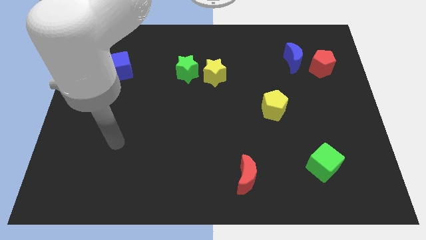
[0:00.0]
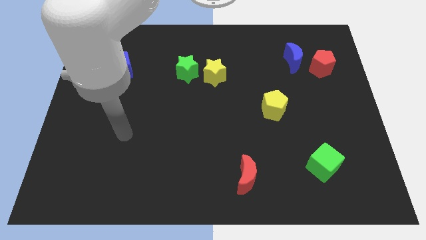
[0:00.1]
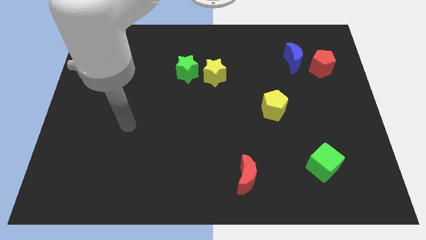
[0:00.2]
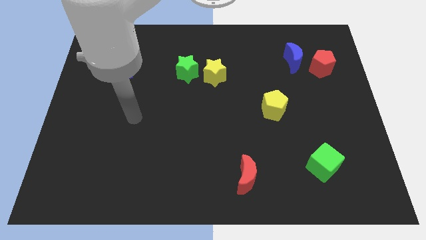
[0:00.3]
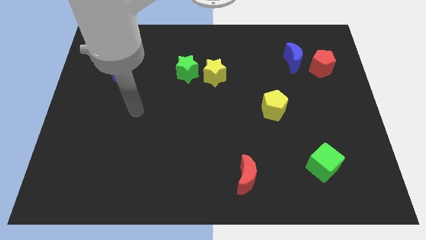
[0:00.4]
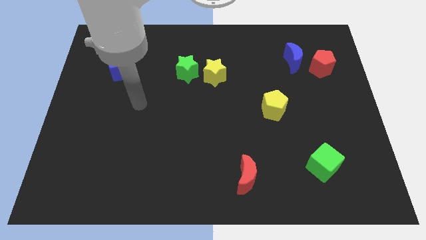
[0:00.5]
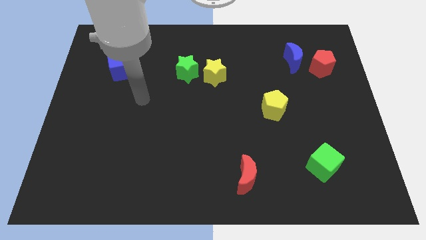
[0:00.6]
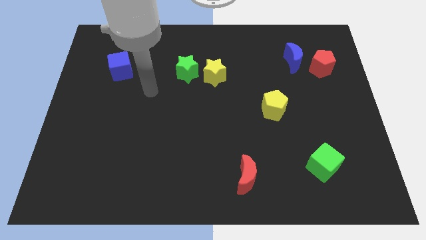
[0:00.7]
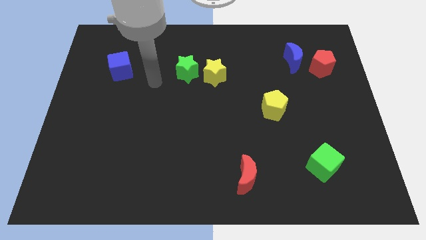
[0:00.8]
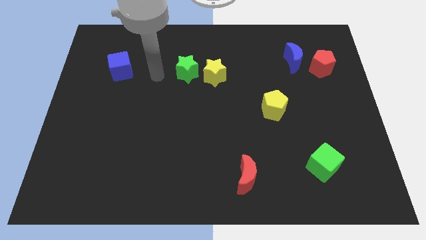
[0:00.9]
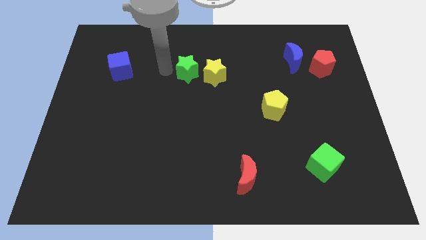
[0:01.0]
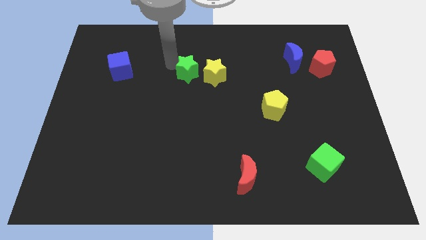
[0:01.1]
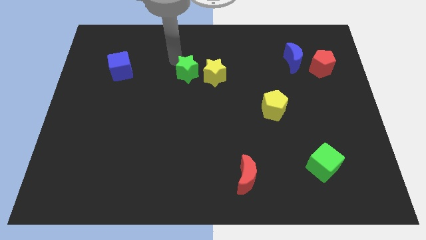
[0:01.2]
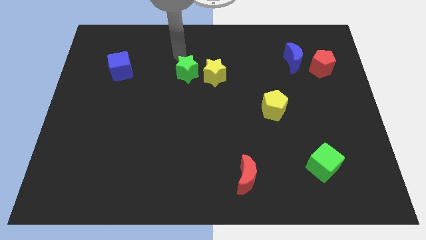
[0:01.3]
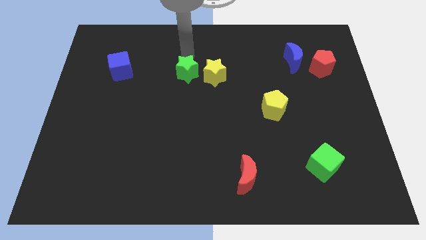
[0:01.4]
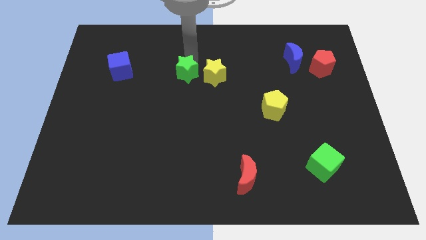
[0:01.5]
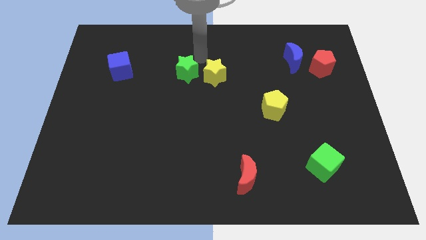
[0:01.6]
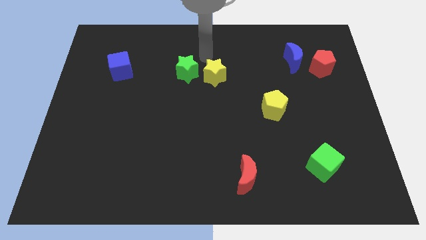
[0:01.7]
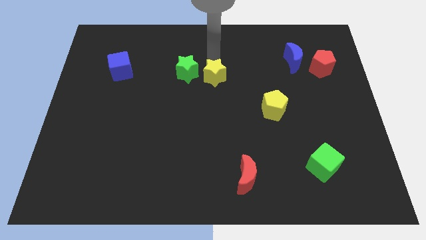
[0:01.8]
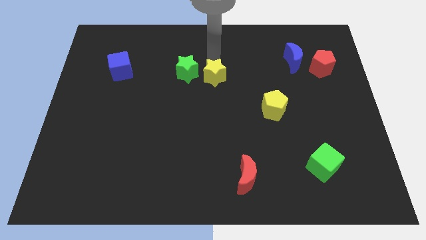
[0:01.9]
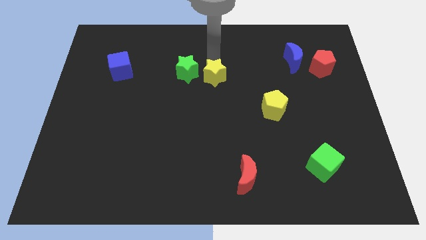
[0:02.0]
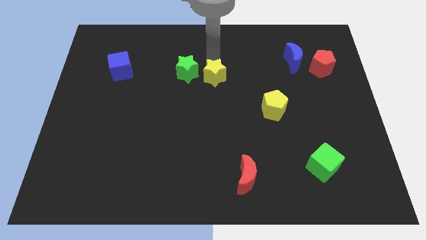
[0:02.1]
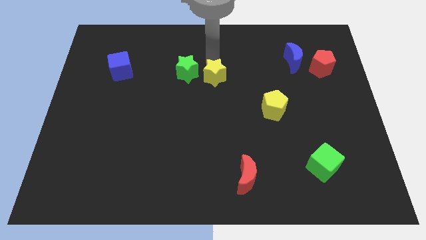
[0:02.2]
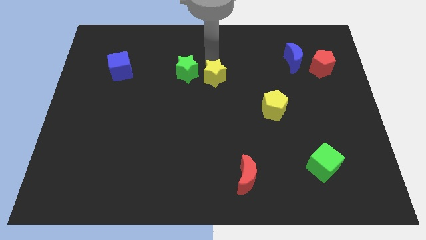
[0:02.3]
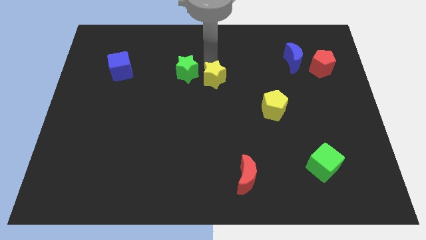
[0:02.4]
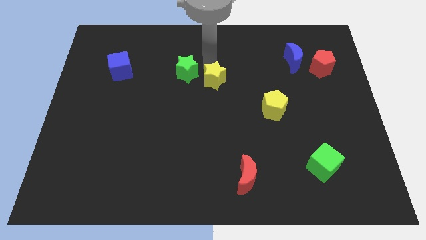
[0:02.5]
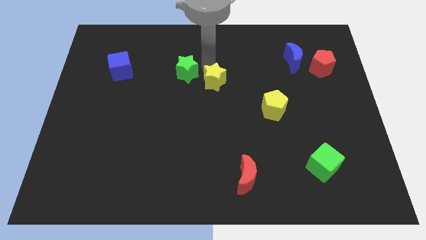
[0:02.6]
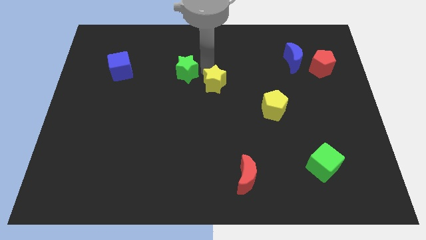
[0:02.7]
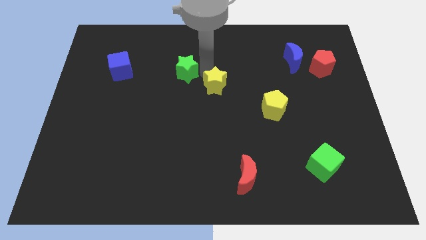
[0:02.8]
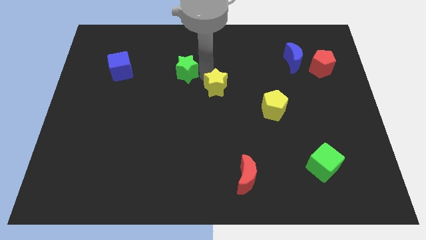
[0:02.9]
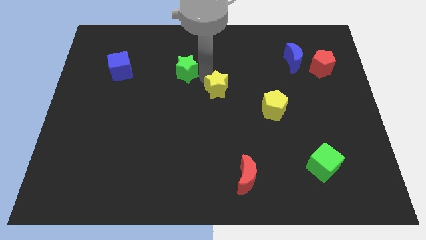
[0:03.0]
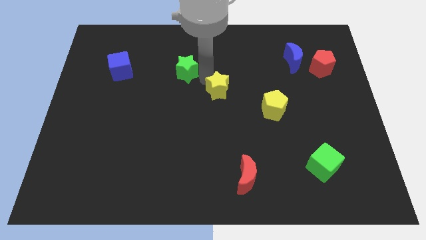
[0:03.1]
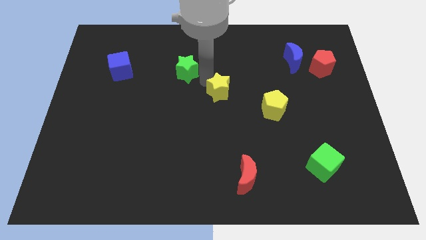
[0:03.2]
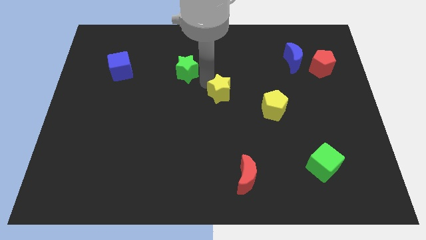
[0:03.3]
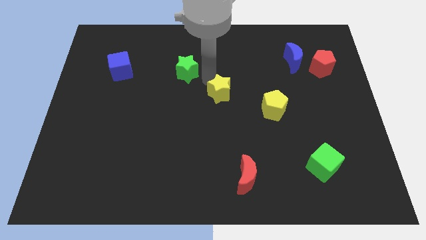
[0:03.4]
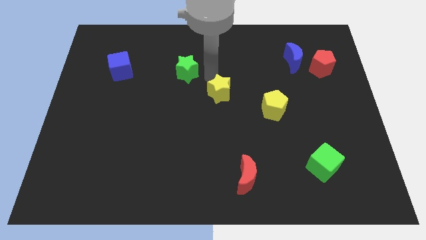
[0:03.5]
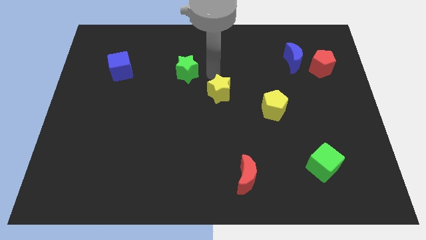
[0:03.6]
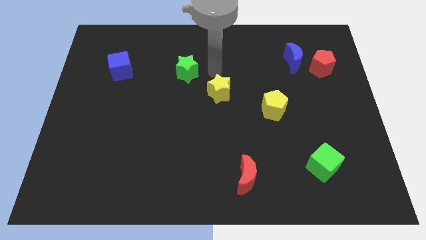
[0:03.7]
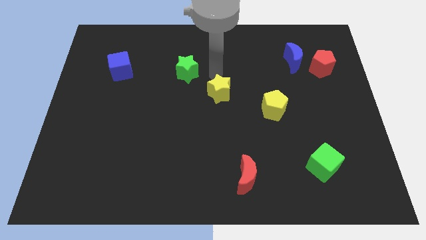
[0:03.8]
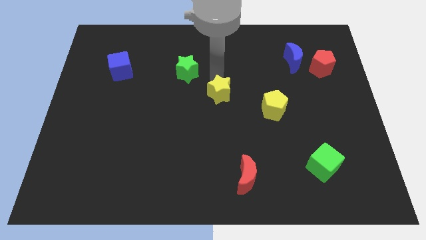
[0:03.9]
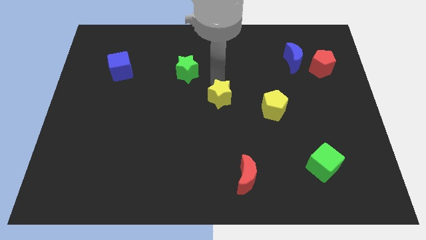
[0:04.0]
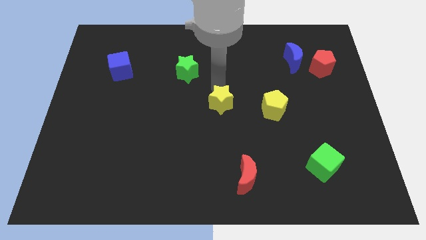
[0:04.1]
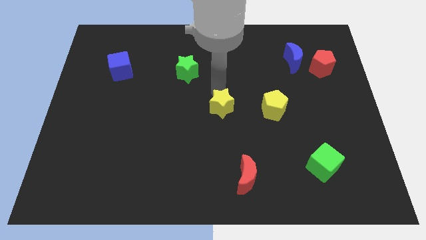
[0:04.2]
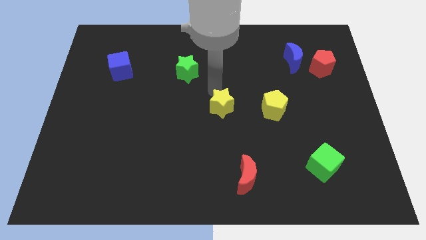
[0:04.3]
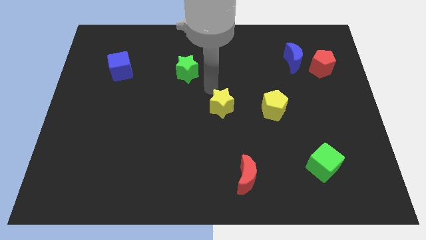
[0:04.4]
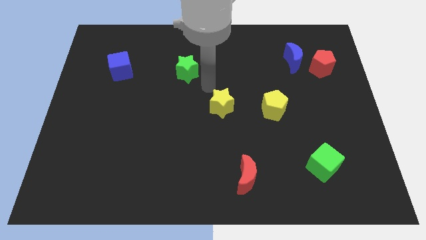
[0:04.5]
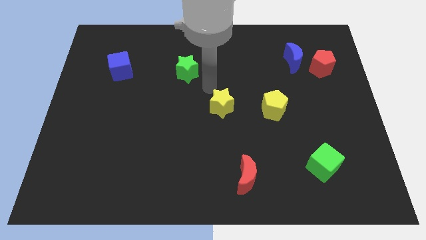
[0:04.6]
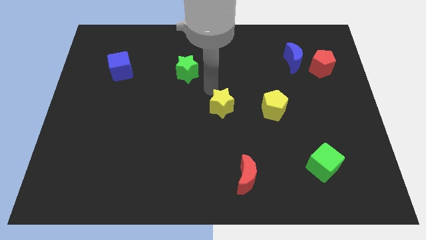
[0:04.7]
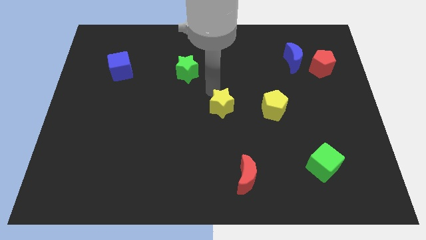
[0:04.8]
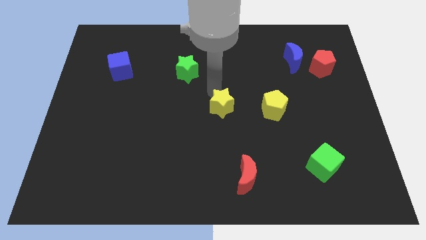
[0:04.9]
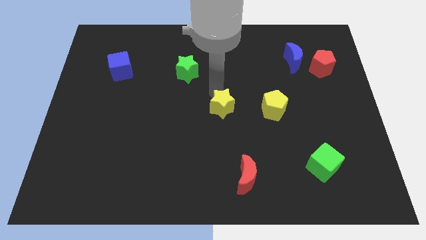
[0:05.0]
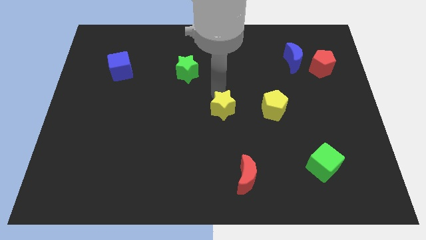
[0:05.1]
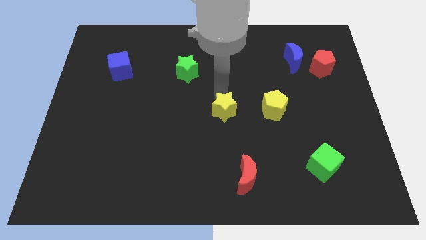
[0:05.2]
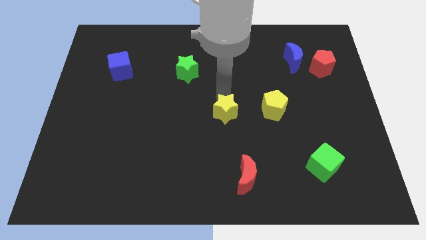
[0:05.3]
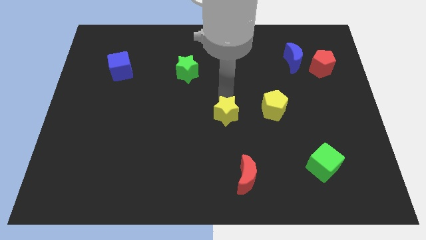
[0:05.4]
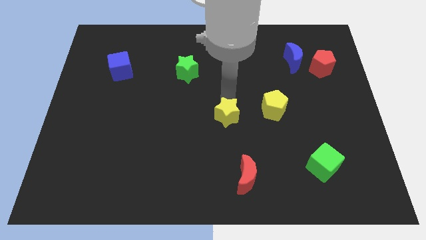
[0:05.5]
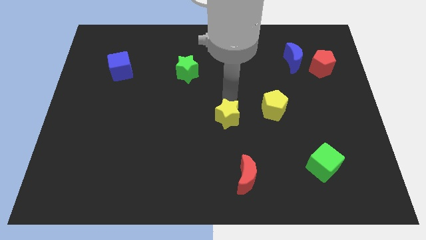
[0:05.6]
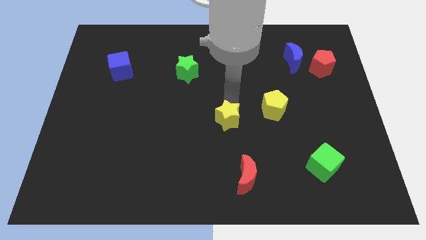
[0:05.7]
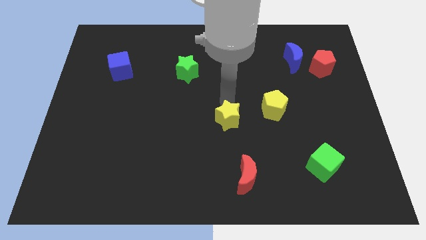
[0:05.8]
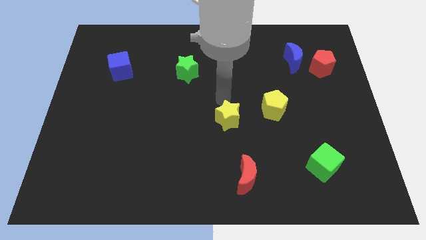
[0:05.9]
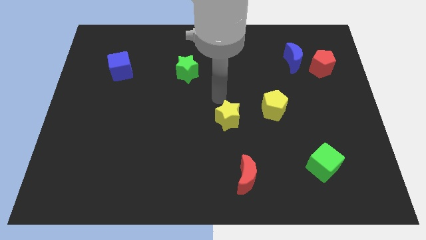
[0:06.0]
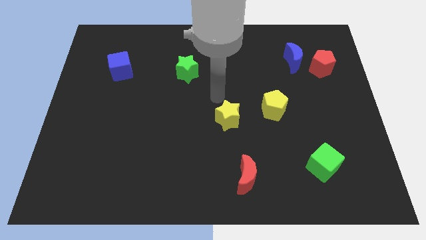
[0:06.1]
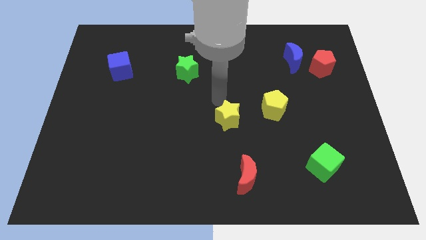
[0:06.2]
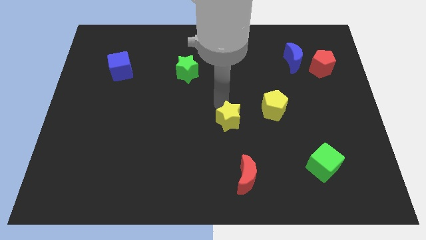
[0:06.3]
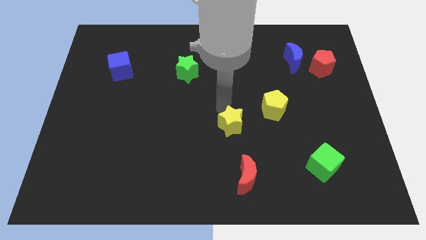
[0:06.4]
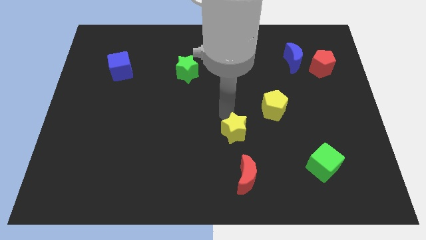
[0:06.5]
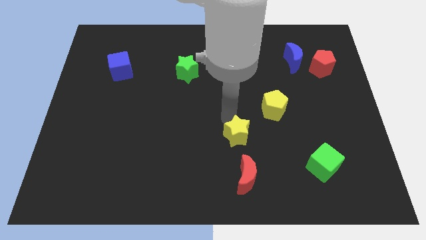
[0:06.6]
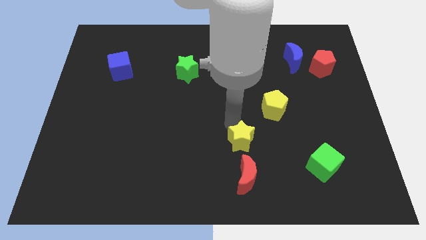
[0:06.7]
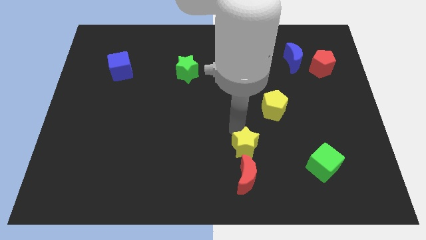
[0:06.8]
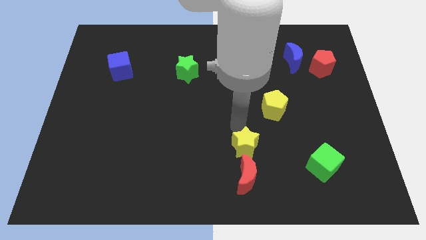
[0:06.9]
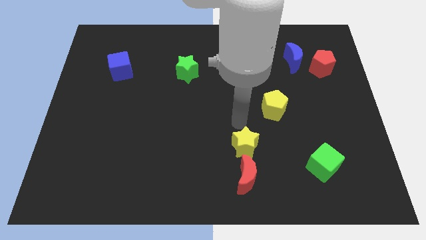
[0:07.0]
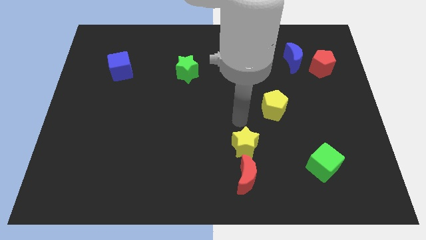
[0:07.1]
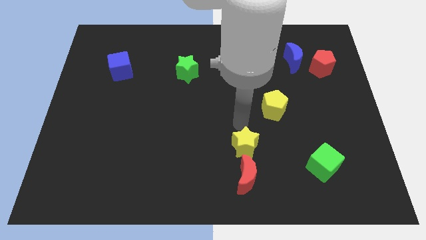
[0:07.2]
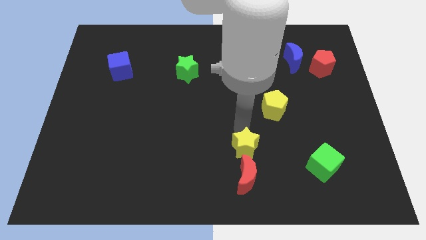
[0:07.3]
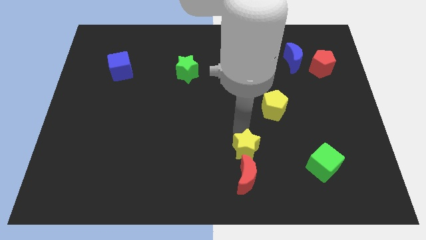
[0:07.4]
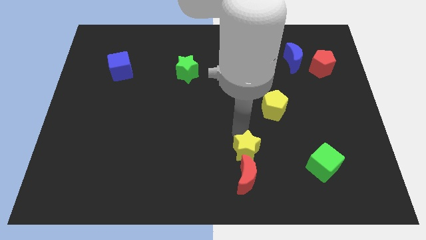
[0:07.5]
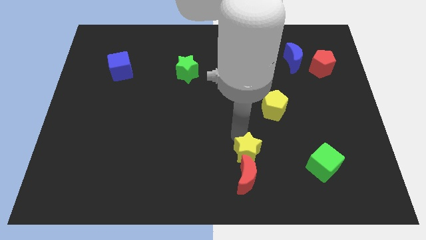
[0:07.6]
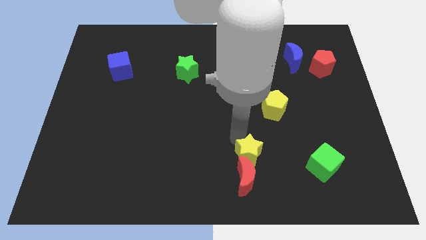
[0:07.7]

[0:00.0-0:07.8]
put the yellow star next to the red moon
